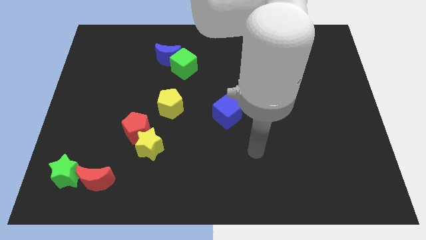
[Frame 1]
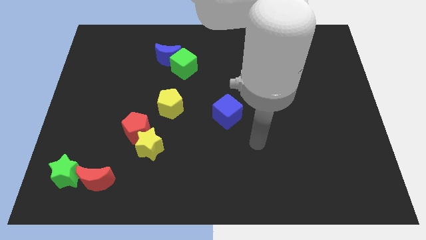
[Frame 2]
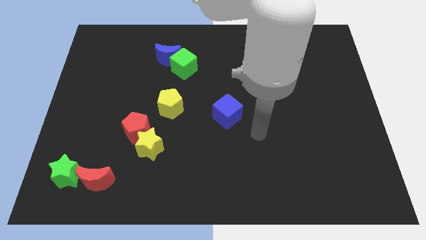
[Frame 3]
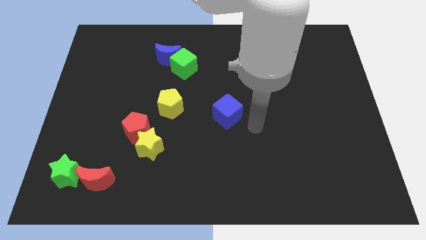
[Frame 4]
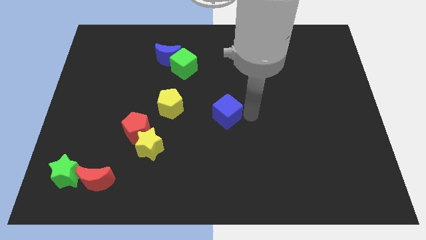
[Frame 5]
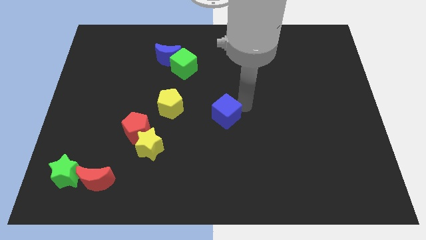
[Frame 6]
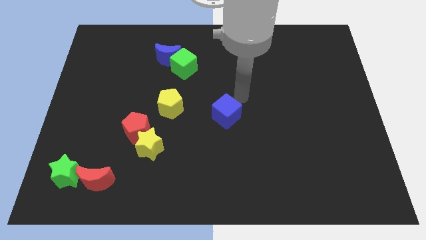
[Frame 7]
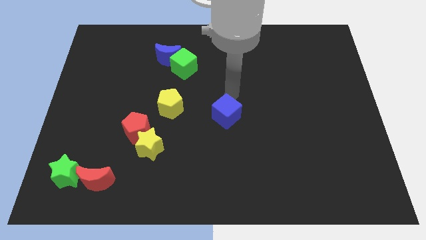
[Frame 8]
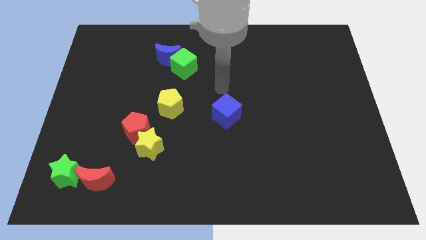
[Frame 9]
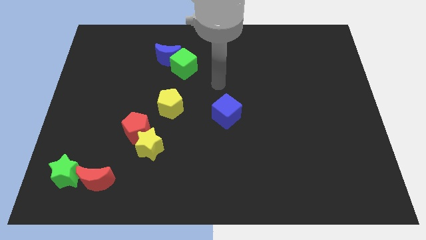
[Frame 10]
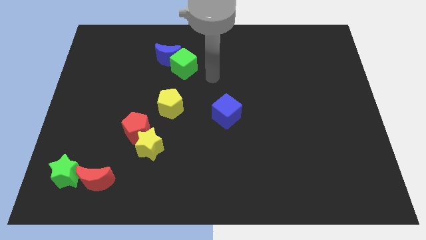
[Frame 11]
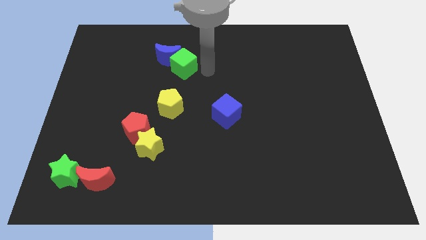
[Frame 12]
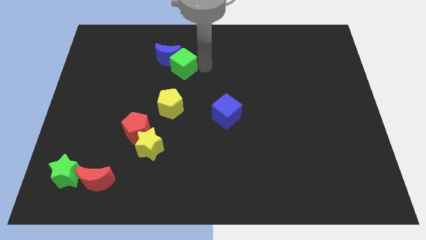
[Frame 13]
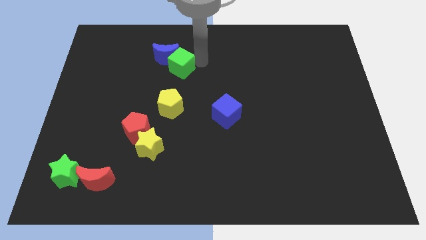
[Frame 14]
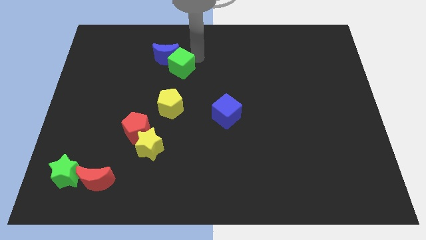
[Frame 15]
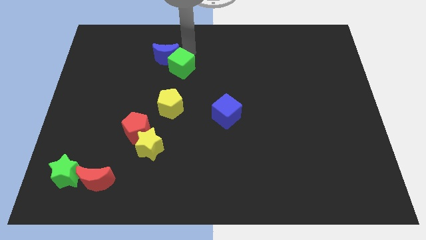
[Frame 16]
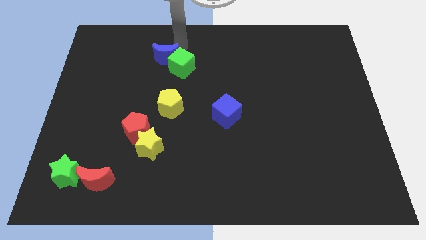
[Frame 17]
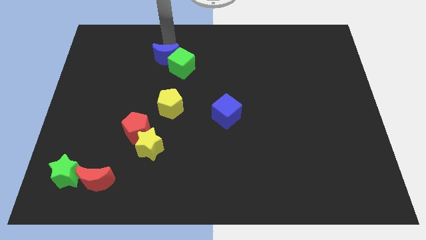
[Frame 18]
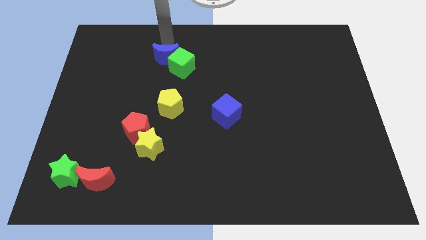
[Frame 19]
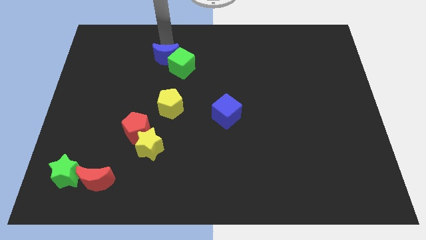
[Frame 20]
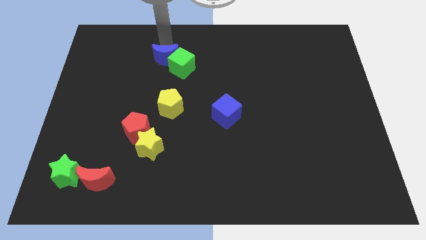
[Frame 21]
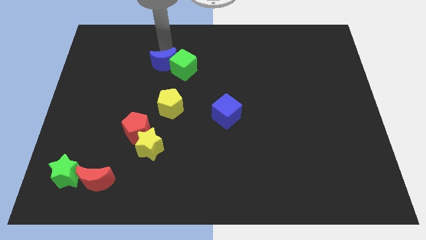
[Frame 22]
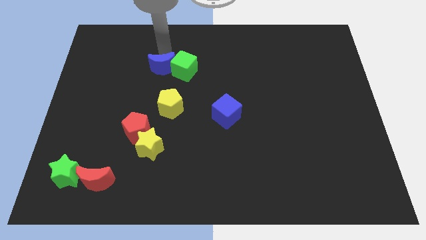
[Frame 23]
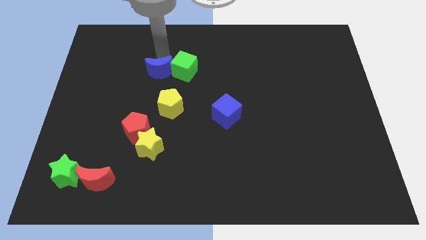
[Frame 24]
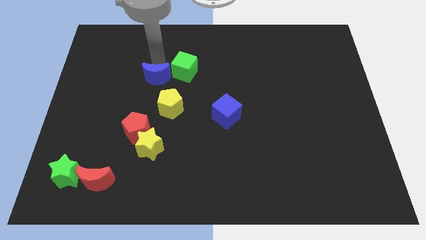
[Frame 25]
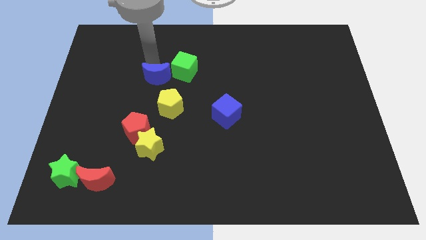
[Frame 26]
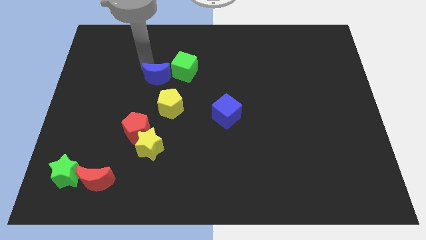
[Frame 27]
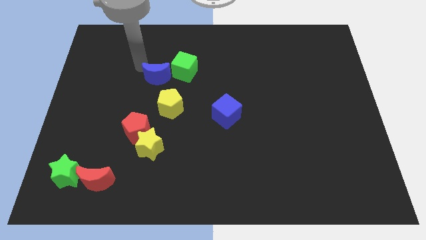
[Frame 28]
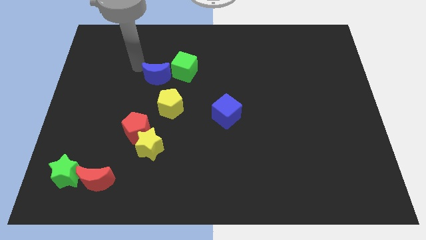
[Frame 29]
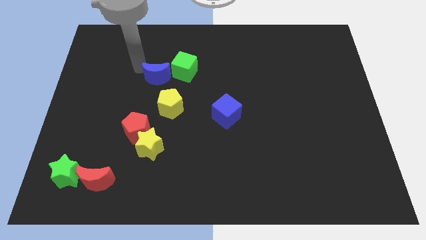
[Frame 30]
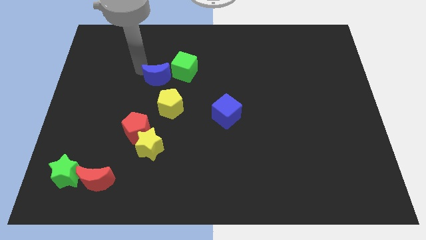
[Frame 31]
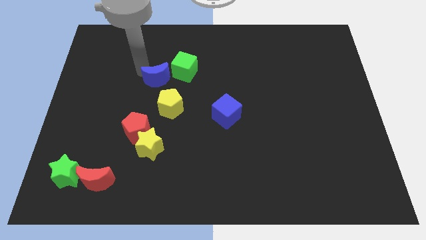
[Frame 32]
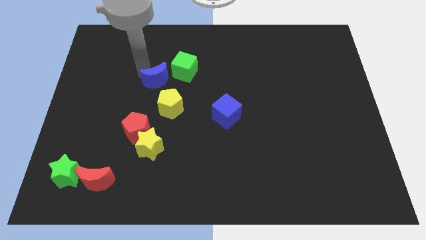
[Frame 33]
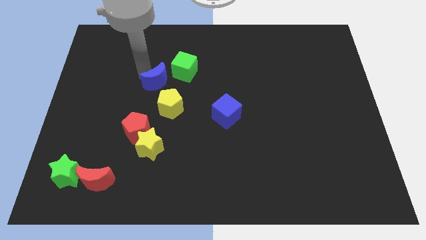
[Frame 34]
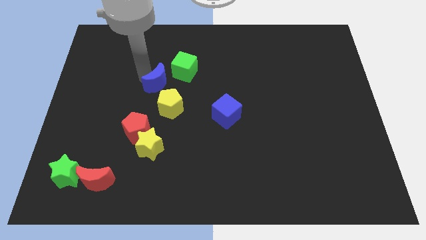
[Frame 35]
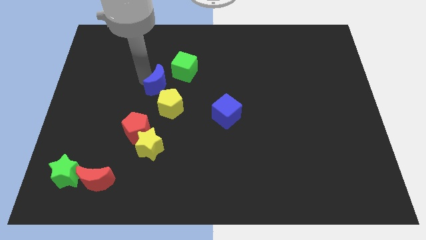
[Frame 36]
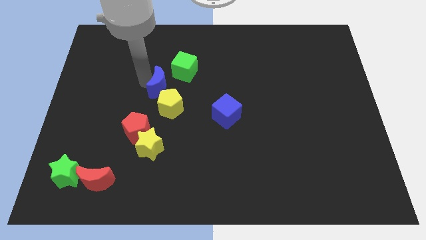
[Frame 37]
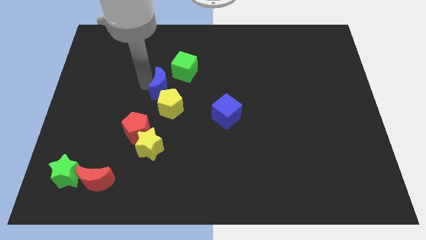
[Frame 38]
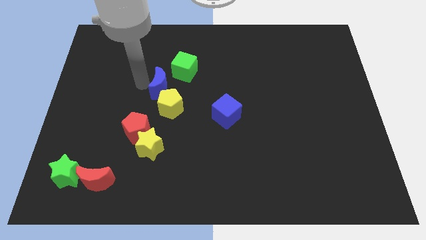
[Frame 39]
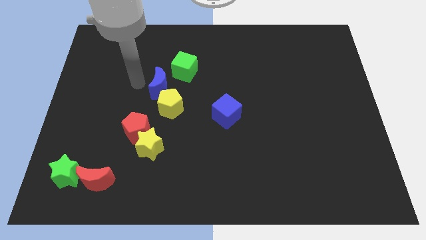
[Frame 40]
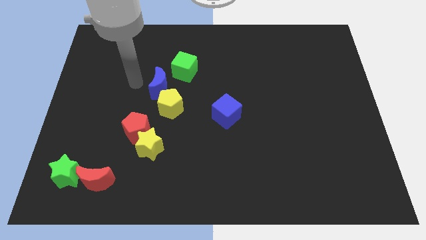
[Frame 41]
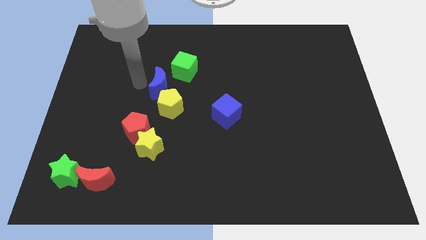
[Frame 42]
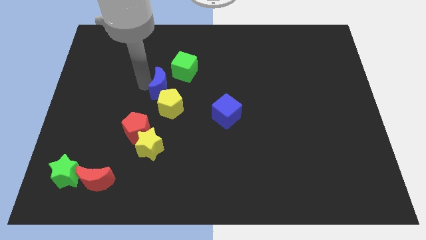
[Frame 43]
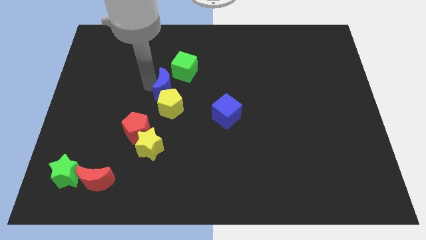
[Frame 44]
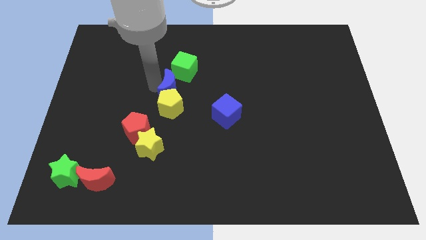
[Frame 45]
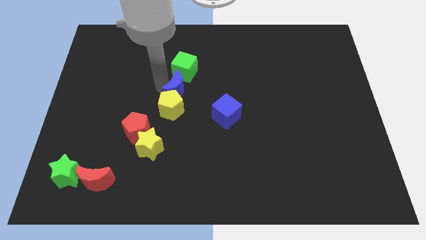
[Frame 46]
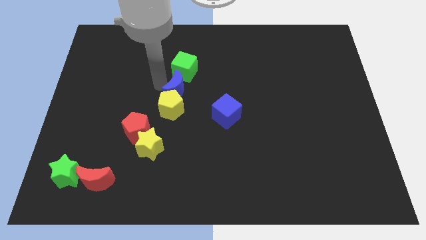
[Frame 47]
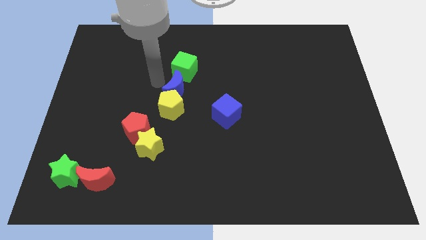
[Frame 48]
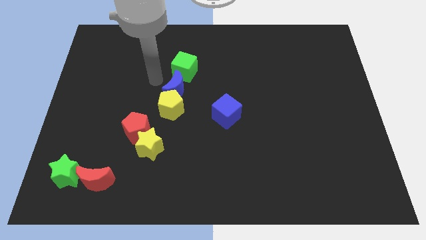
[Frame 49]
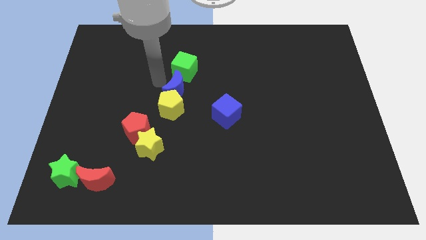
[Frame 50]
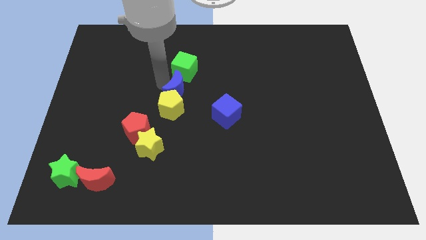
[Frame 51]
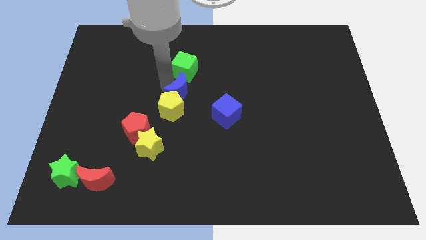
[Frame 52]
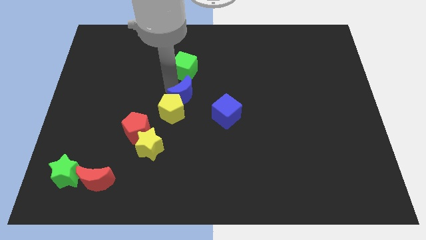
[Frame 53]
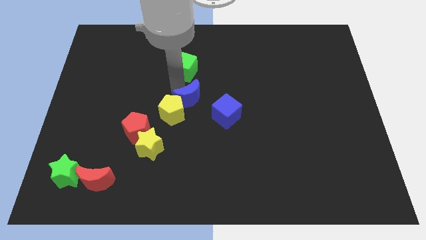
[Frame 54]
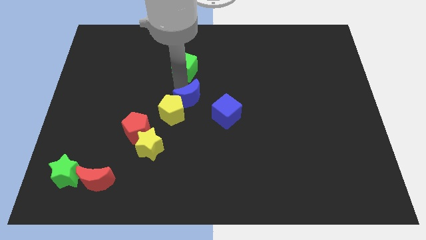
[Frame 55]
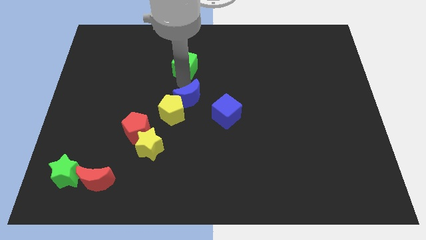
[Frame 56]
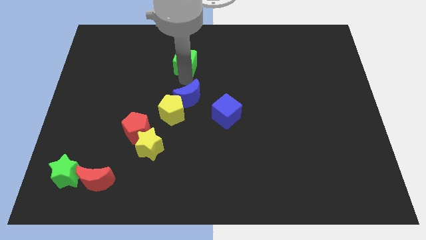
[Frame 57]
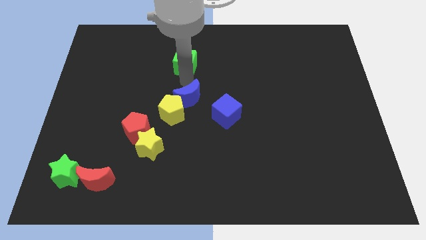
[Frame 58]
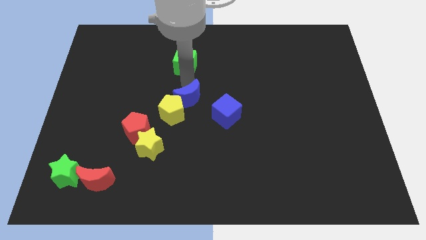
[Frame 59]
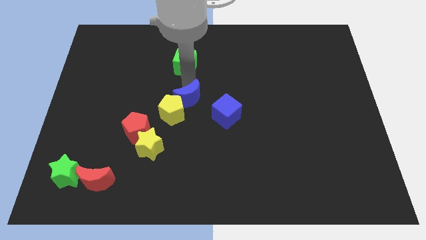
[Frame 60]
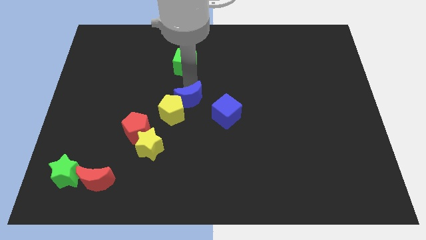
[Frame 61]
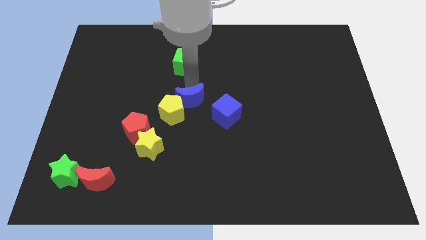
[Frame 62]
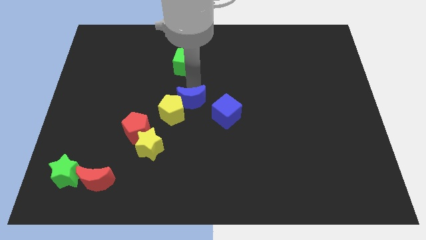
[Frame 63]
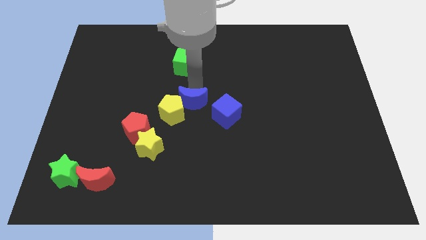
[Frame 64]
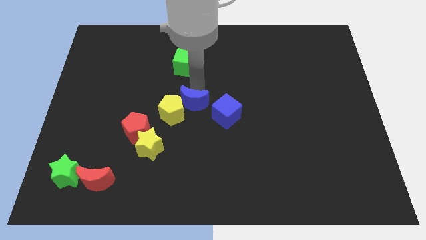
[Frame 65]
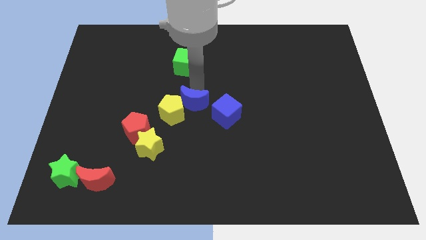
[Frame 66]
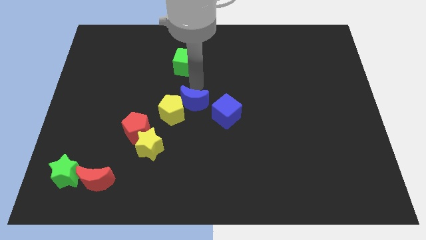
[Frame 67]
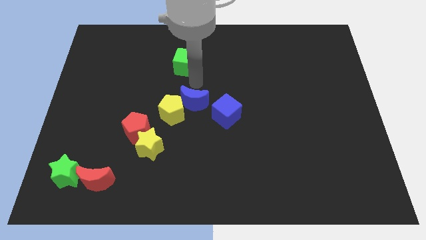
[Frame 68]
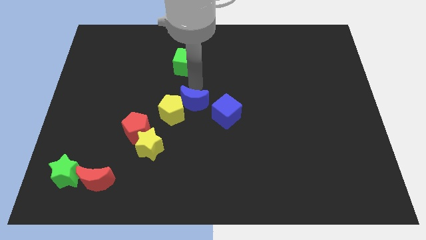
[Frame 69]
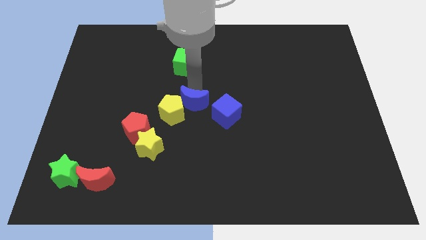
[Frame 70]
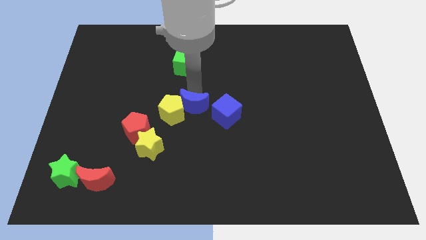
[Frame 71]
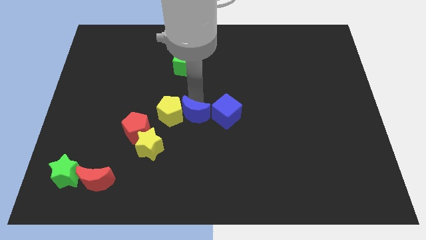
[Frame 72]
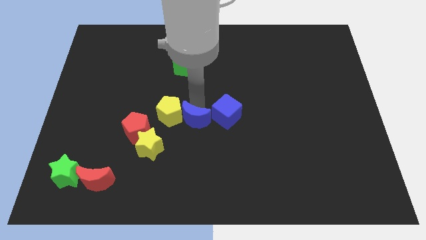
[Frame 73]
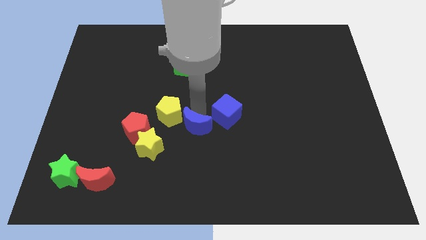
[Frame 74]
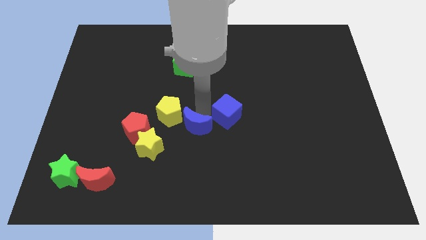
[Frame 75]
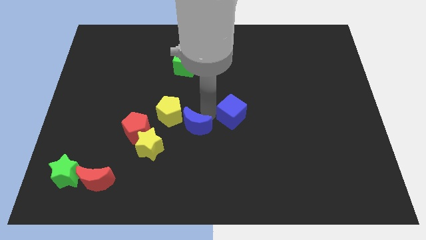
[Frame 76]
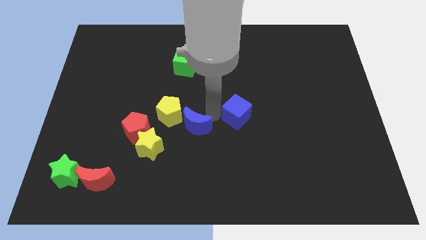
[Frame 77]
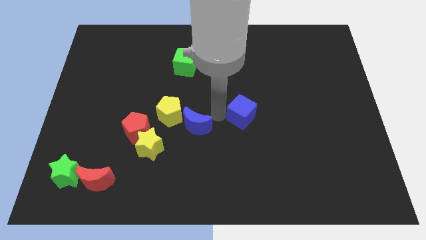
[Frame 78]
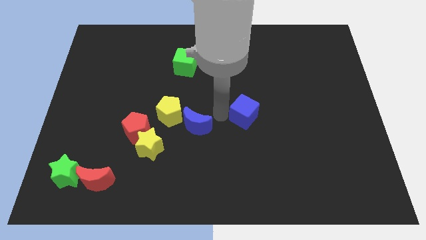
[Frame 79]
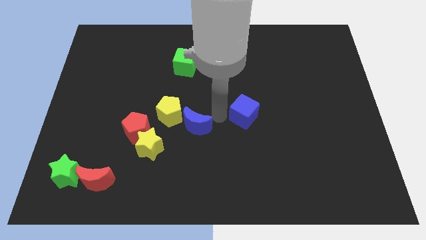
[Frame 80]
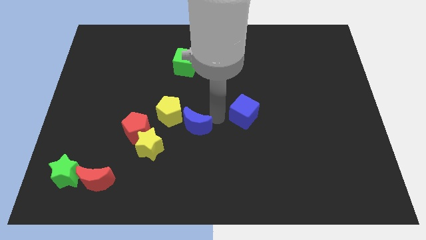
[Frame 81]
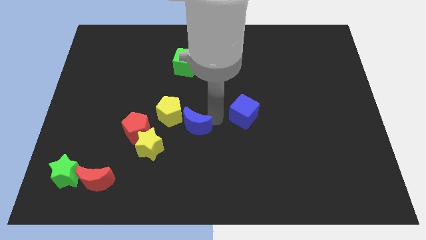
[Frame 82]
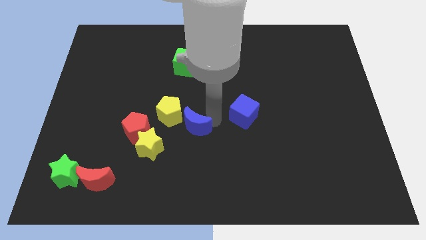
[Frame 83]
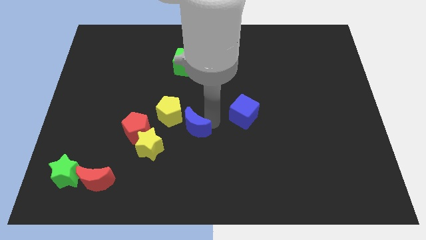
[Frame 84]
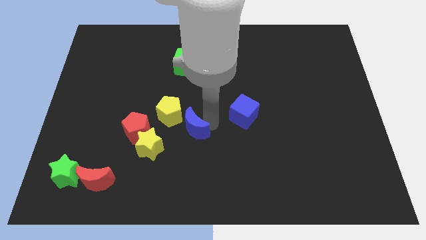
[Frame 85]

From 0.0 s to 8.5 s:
push the blue moon down
